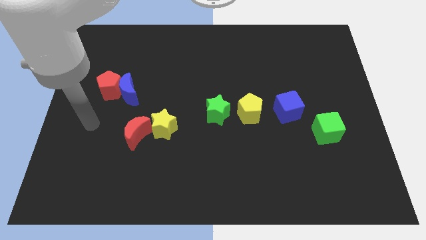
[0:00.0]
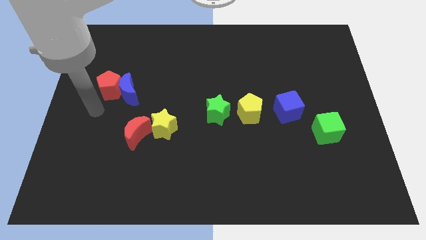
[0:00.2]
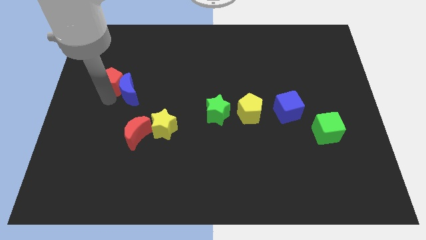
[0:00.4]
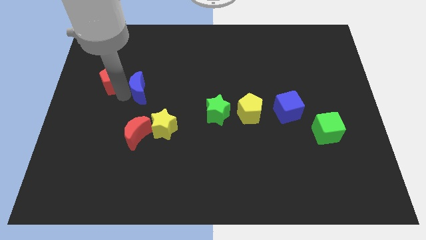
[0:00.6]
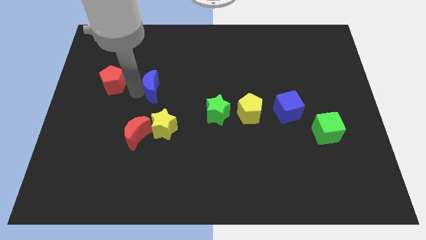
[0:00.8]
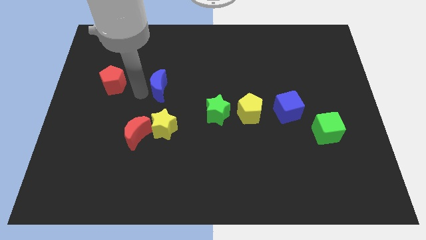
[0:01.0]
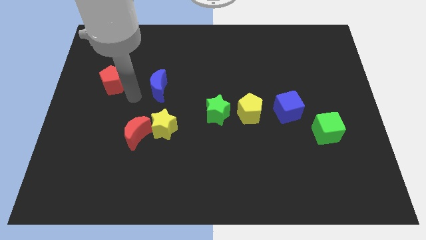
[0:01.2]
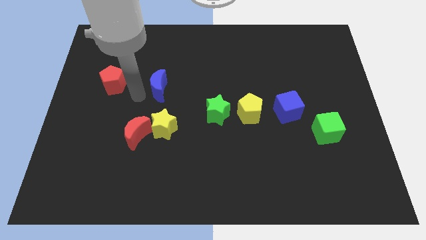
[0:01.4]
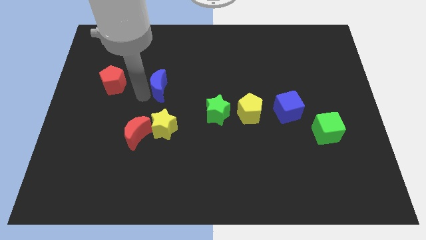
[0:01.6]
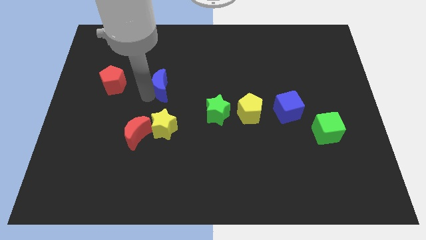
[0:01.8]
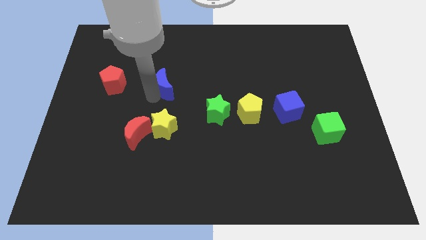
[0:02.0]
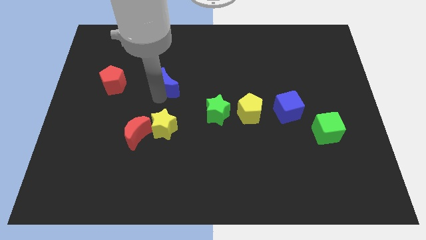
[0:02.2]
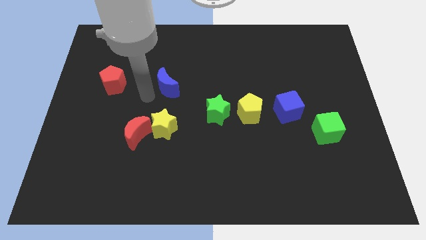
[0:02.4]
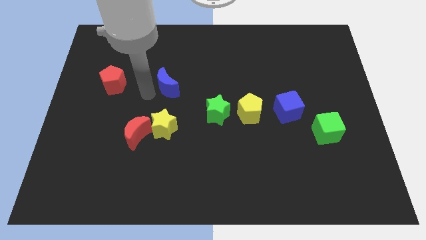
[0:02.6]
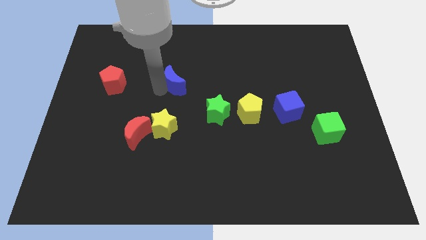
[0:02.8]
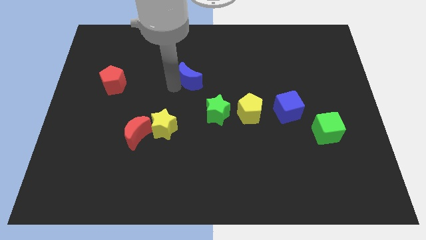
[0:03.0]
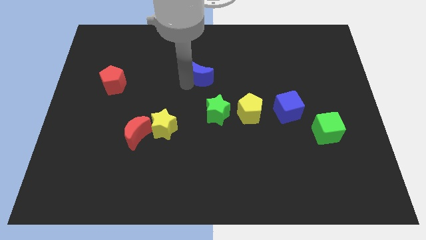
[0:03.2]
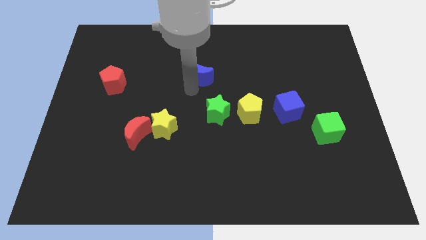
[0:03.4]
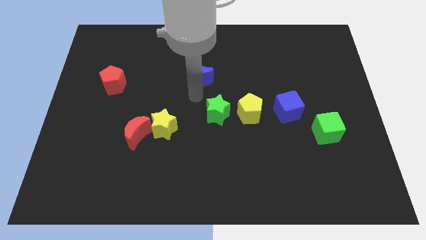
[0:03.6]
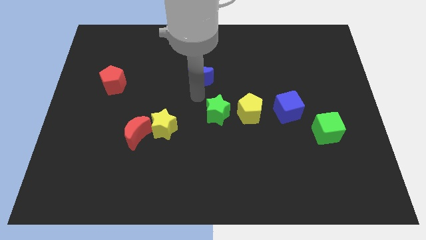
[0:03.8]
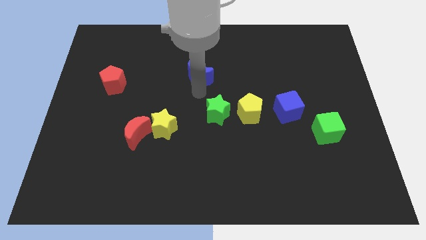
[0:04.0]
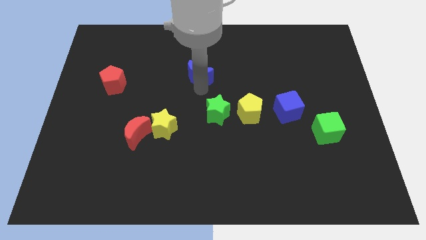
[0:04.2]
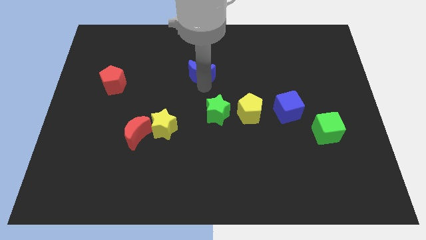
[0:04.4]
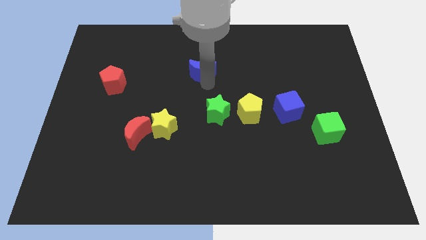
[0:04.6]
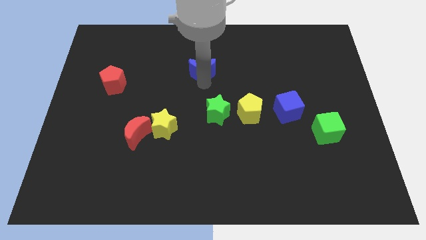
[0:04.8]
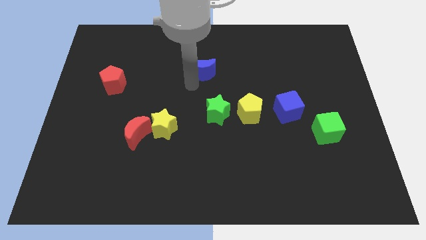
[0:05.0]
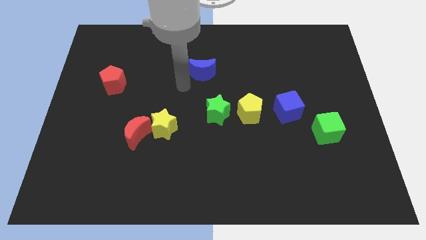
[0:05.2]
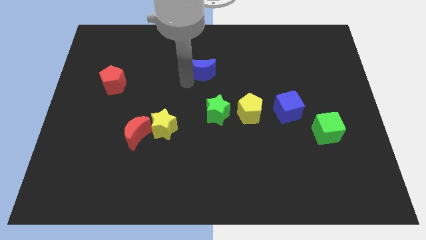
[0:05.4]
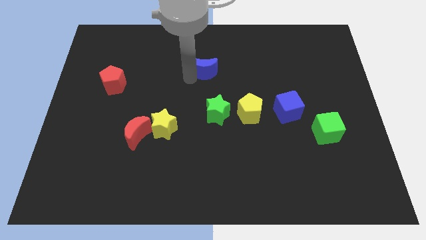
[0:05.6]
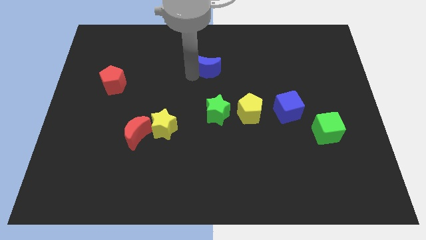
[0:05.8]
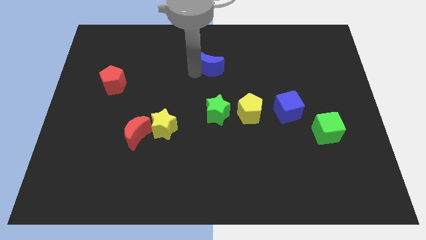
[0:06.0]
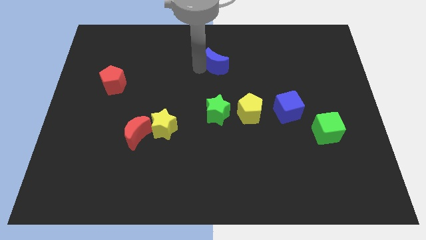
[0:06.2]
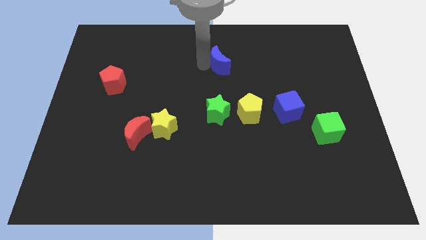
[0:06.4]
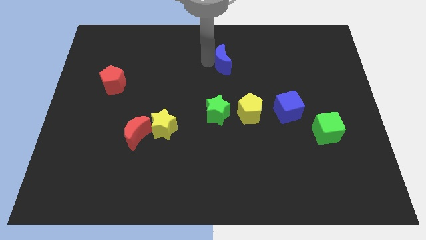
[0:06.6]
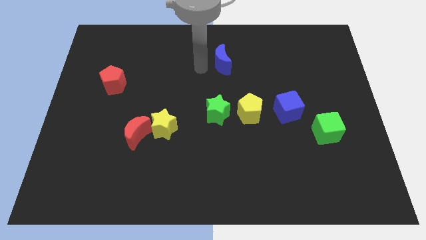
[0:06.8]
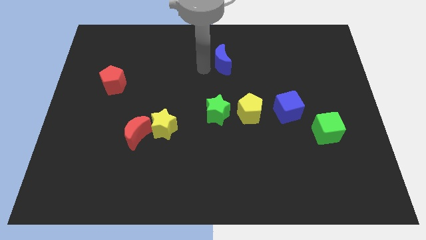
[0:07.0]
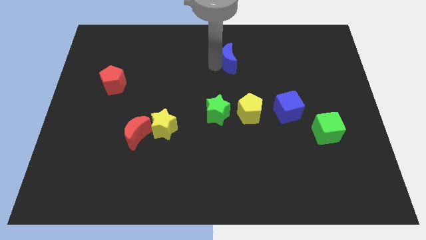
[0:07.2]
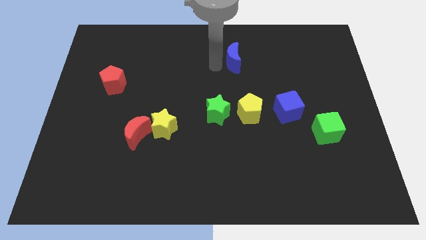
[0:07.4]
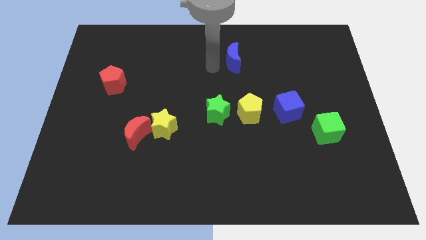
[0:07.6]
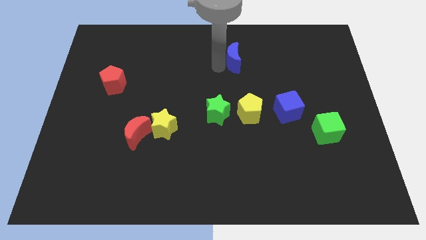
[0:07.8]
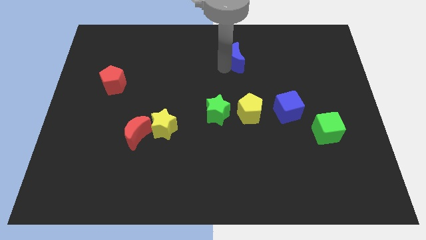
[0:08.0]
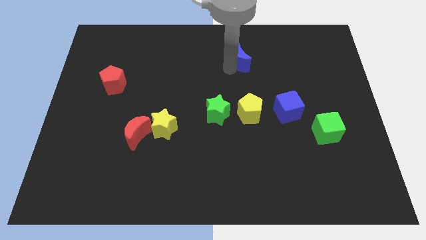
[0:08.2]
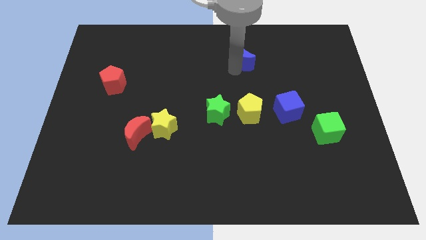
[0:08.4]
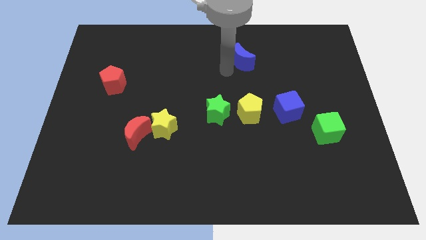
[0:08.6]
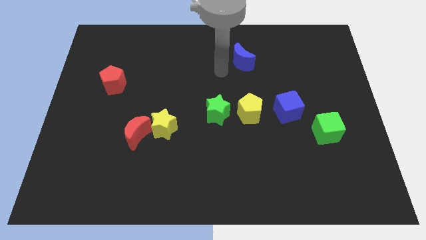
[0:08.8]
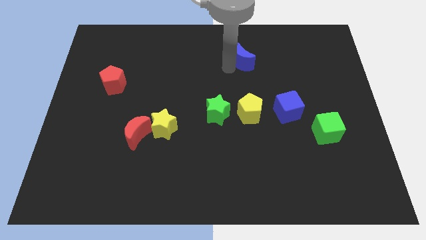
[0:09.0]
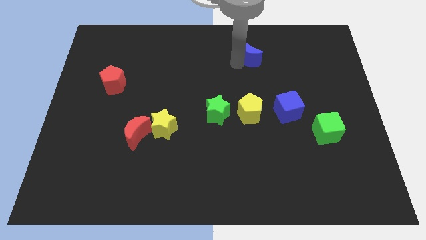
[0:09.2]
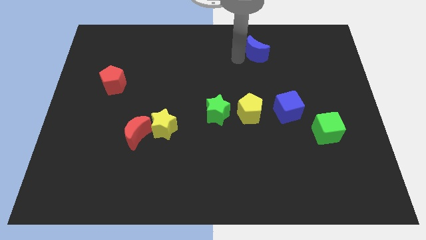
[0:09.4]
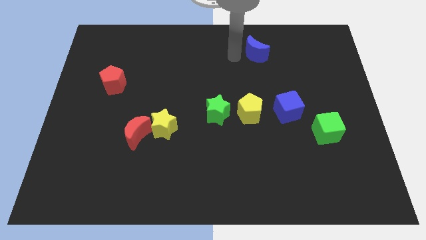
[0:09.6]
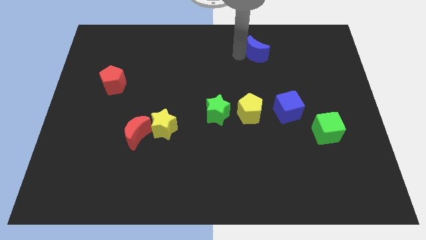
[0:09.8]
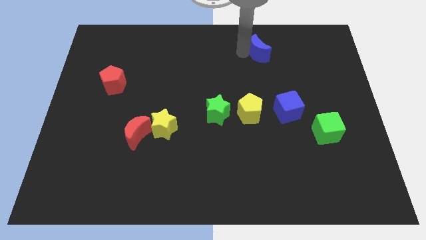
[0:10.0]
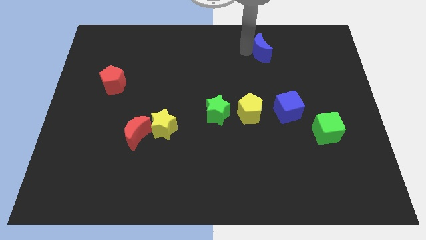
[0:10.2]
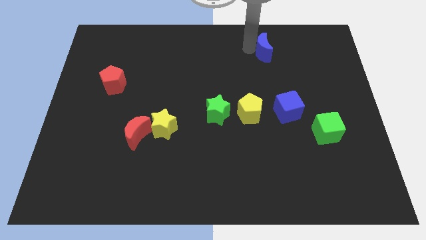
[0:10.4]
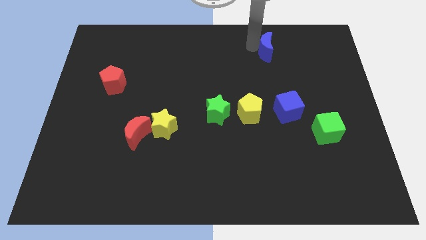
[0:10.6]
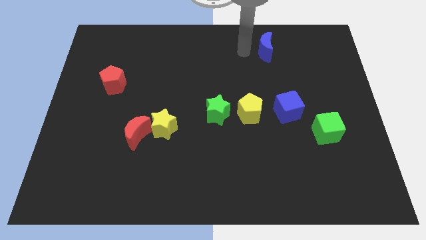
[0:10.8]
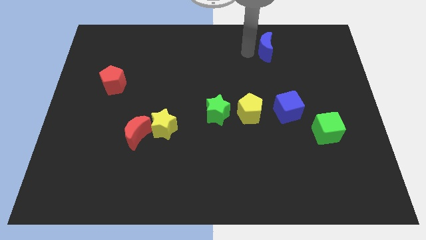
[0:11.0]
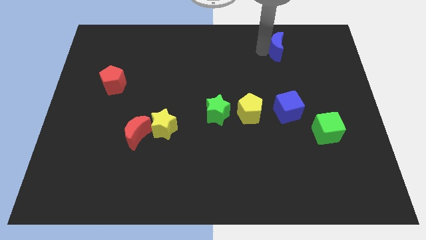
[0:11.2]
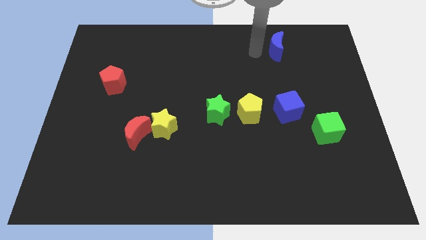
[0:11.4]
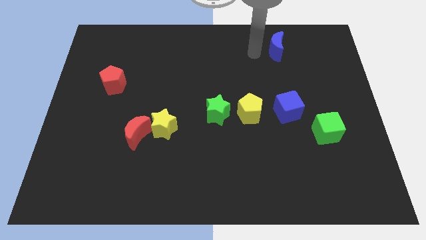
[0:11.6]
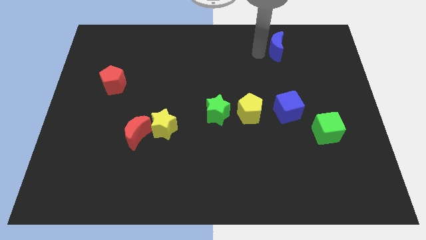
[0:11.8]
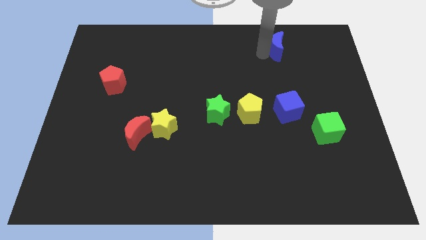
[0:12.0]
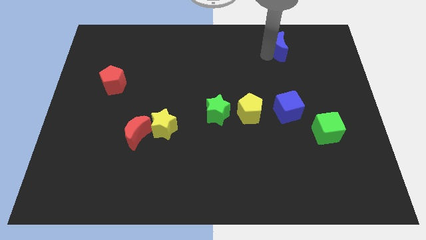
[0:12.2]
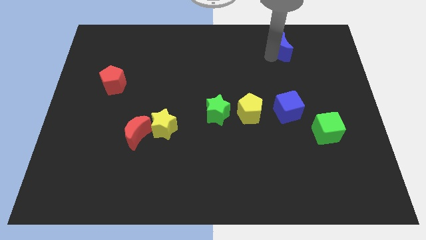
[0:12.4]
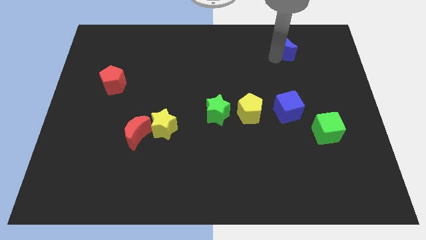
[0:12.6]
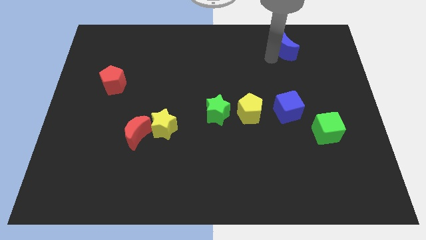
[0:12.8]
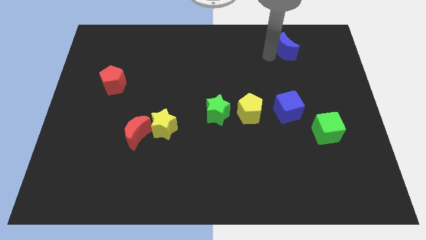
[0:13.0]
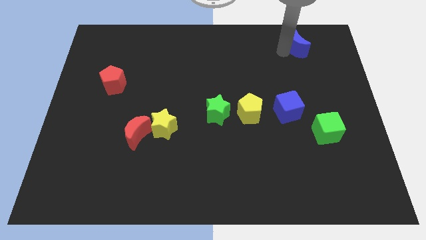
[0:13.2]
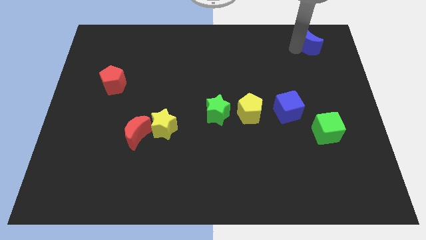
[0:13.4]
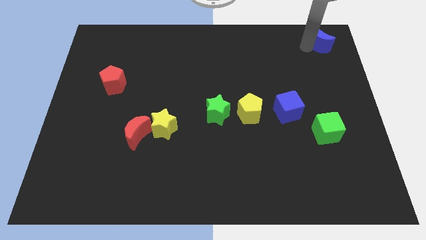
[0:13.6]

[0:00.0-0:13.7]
put the blue moon to the top right of the board
